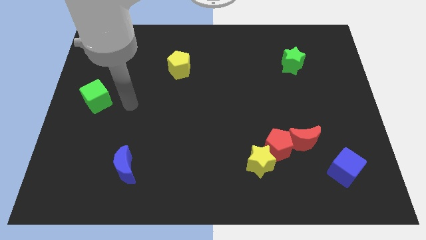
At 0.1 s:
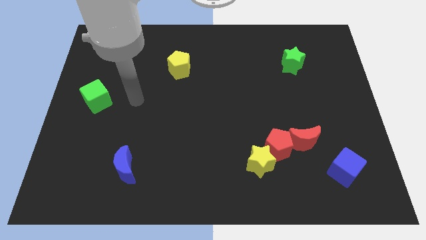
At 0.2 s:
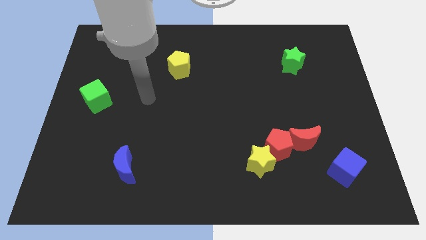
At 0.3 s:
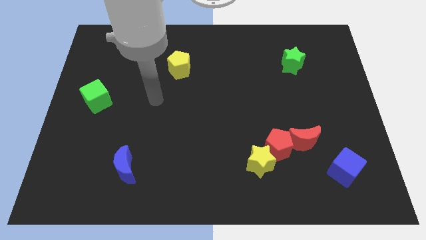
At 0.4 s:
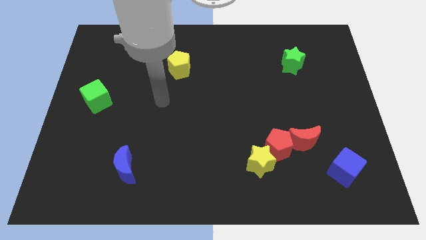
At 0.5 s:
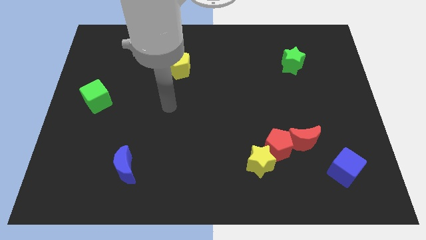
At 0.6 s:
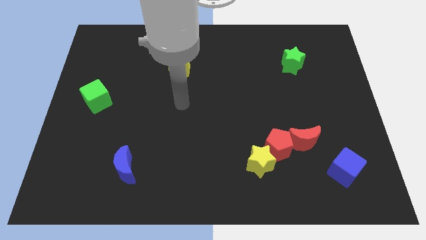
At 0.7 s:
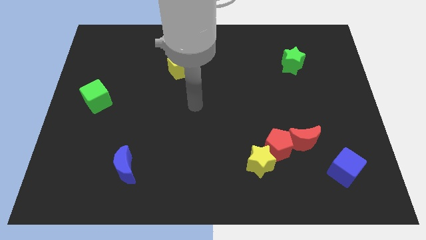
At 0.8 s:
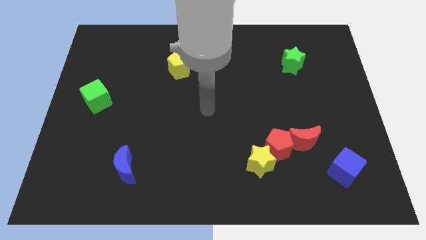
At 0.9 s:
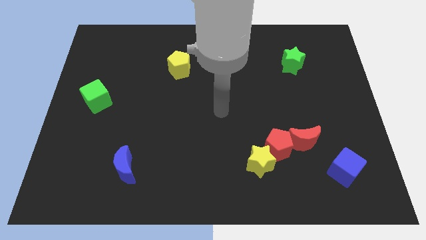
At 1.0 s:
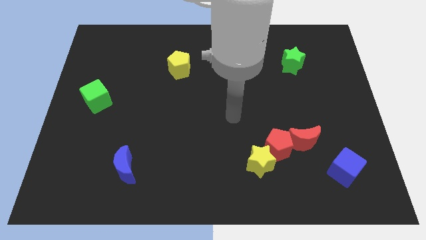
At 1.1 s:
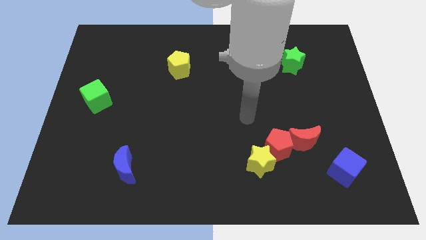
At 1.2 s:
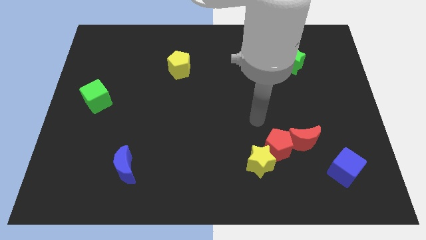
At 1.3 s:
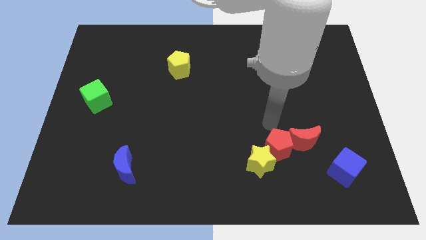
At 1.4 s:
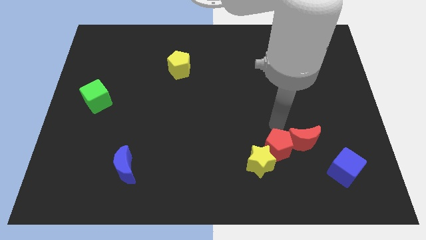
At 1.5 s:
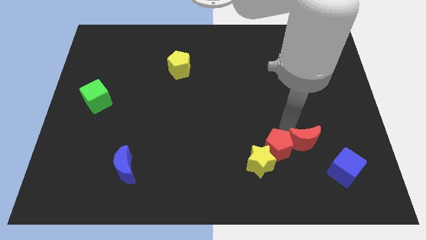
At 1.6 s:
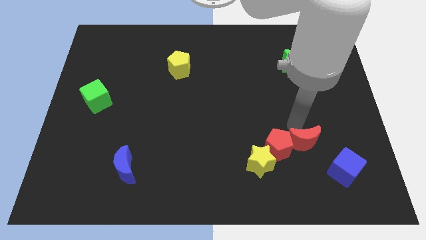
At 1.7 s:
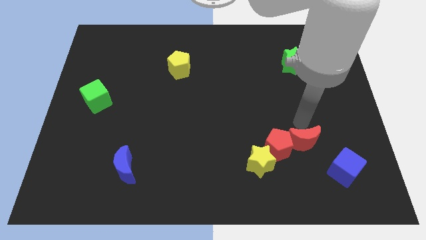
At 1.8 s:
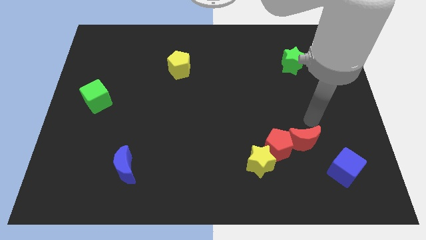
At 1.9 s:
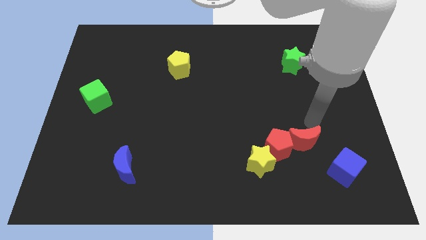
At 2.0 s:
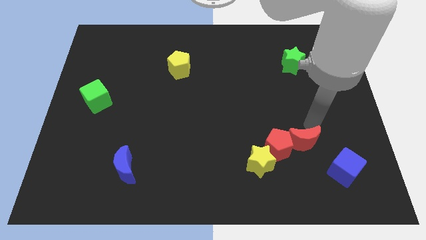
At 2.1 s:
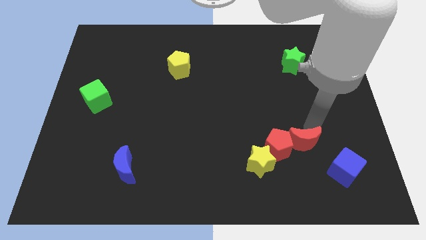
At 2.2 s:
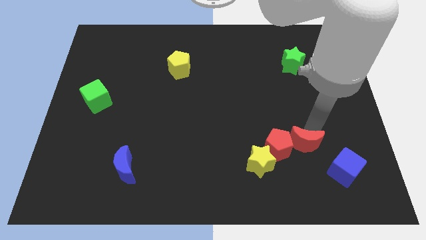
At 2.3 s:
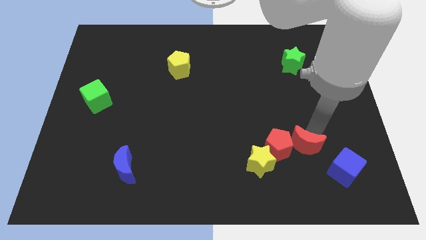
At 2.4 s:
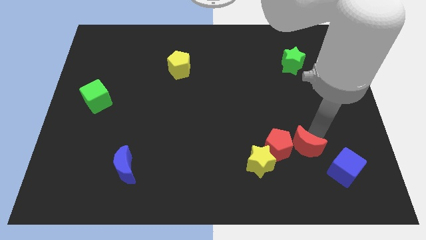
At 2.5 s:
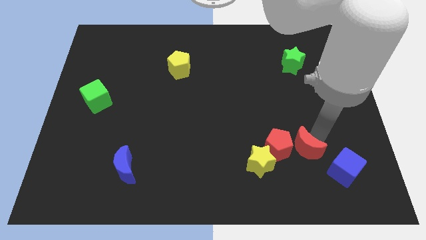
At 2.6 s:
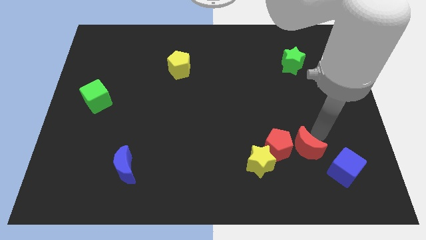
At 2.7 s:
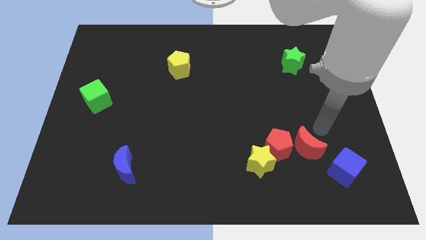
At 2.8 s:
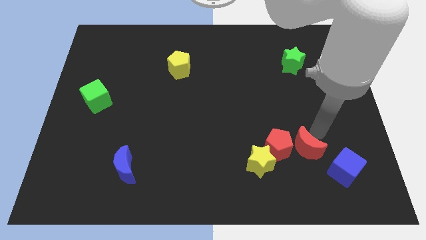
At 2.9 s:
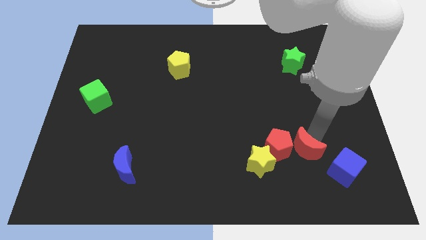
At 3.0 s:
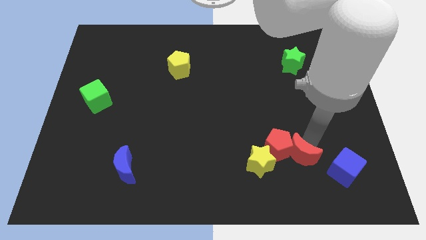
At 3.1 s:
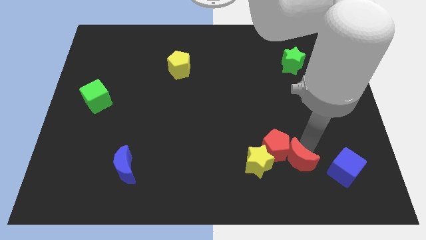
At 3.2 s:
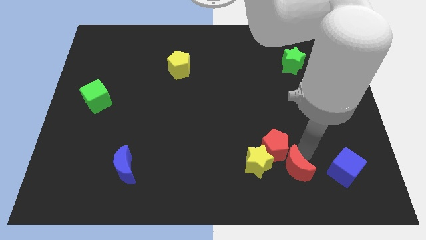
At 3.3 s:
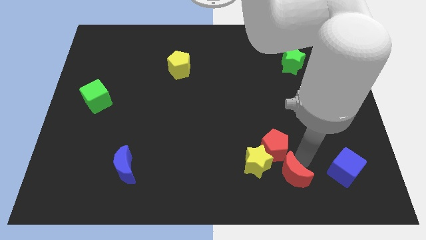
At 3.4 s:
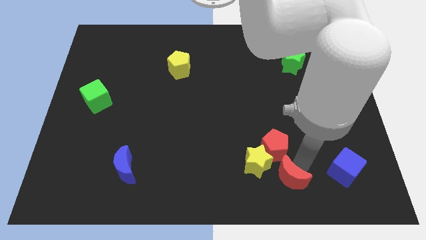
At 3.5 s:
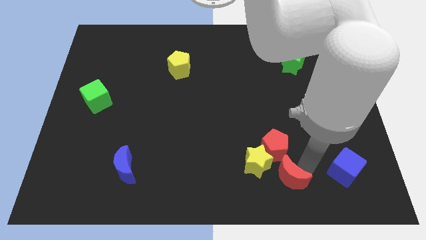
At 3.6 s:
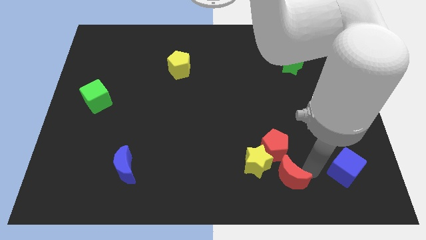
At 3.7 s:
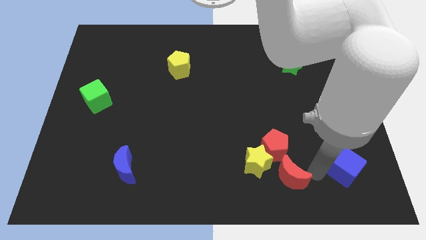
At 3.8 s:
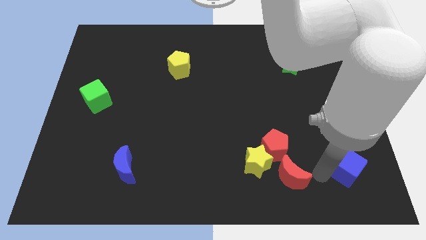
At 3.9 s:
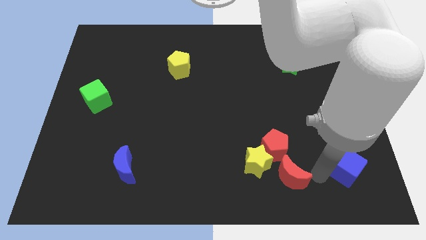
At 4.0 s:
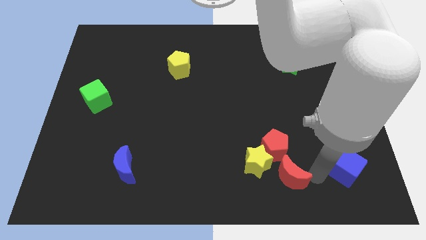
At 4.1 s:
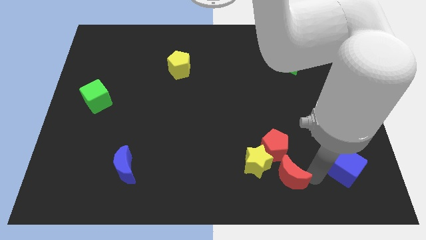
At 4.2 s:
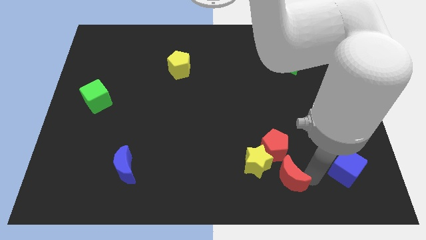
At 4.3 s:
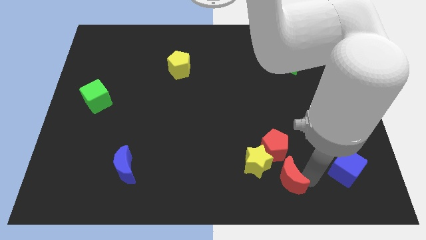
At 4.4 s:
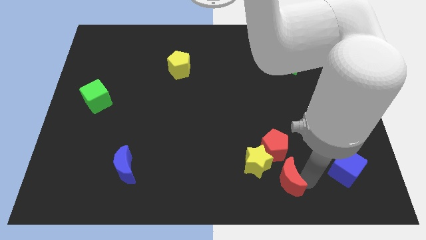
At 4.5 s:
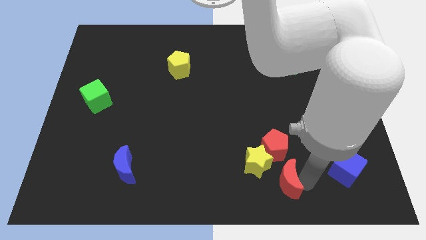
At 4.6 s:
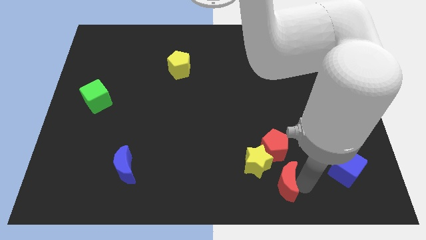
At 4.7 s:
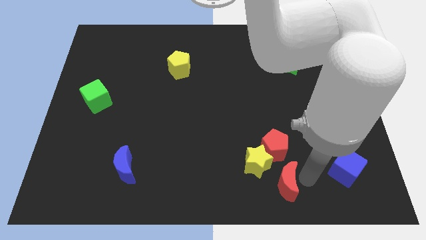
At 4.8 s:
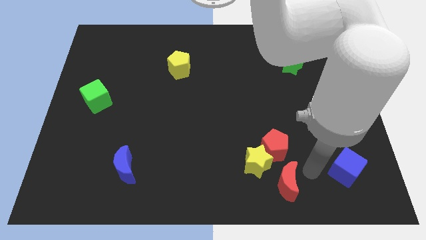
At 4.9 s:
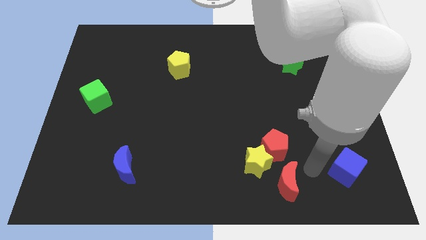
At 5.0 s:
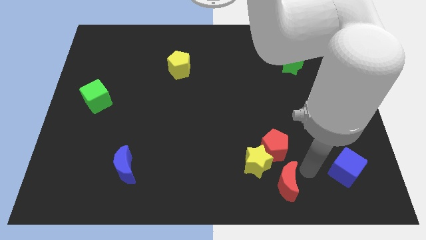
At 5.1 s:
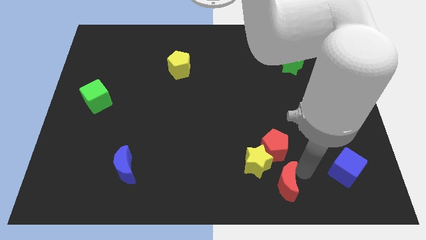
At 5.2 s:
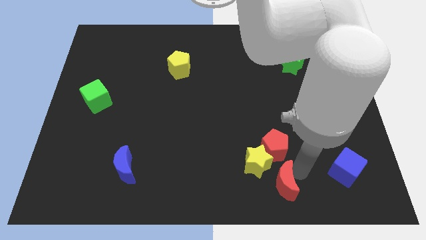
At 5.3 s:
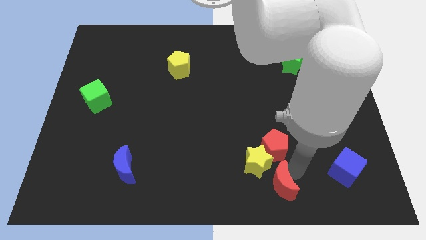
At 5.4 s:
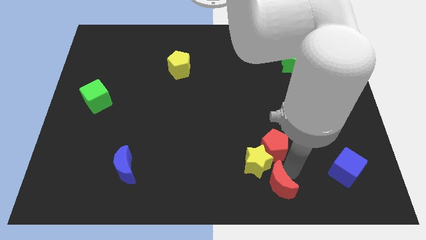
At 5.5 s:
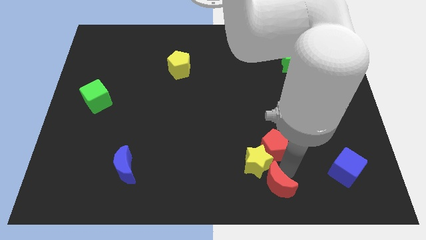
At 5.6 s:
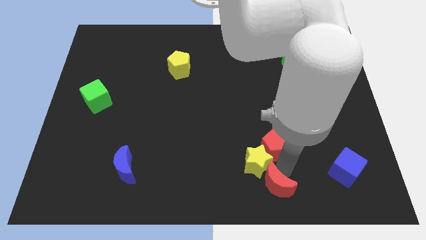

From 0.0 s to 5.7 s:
move the red moon to the bottom side

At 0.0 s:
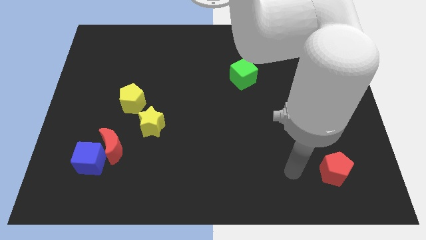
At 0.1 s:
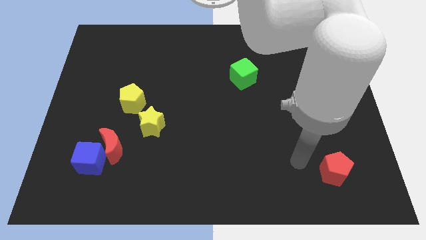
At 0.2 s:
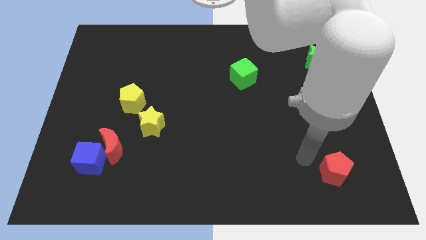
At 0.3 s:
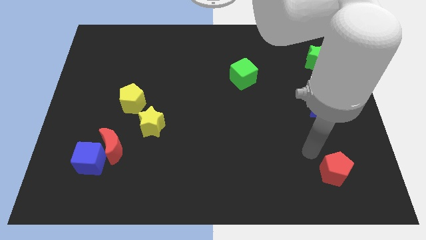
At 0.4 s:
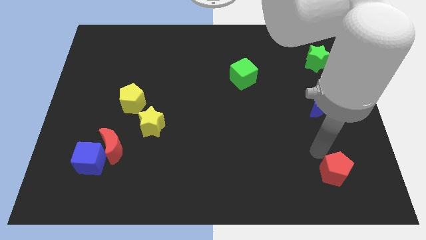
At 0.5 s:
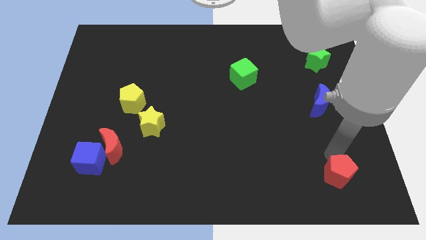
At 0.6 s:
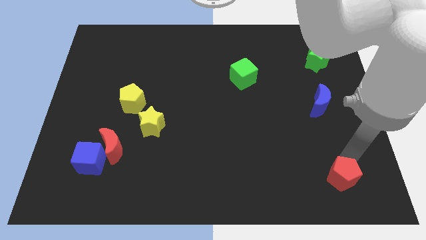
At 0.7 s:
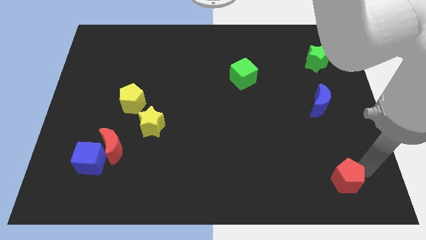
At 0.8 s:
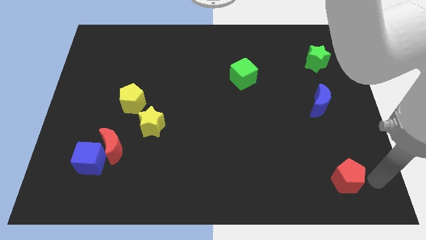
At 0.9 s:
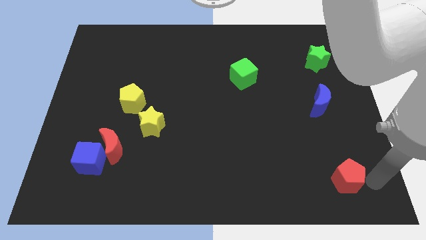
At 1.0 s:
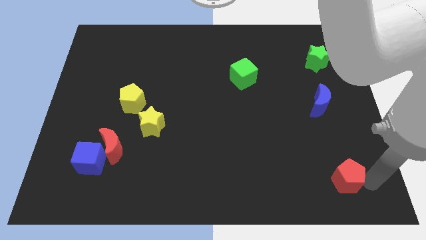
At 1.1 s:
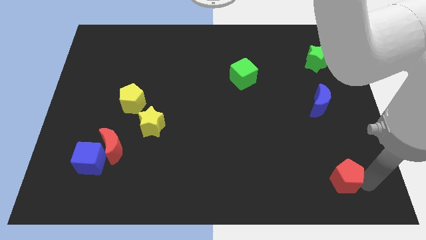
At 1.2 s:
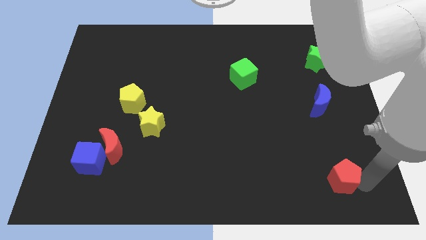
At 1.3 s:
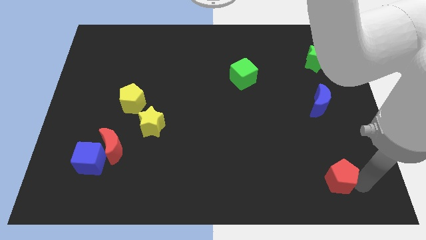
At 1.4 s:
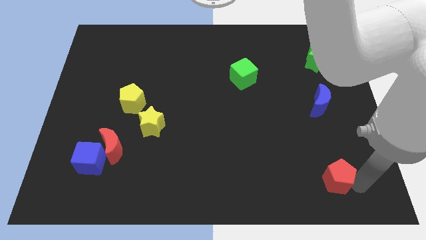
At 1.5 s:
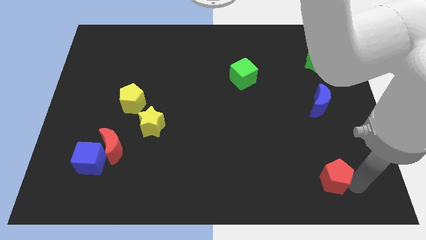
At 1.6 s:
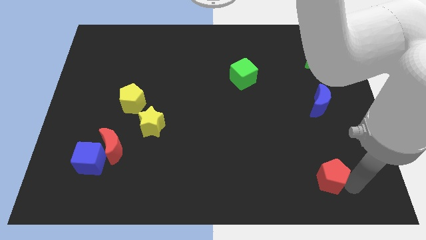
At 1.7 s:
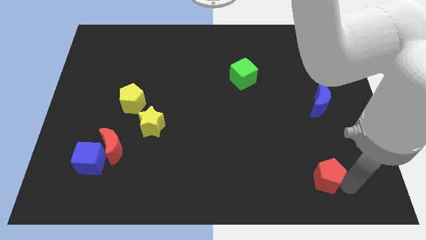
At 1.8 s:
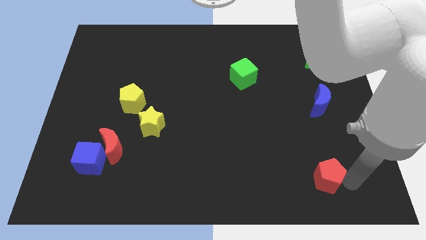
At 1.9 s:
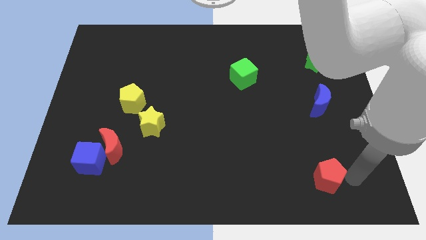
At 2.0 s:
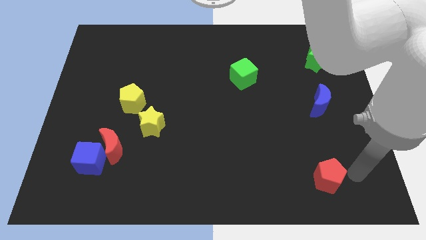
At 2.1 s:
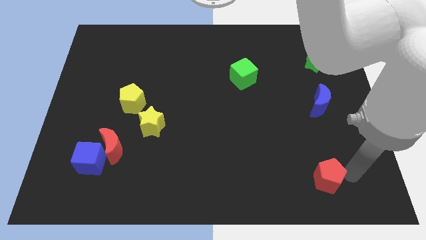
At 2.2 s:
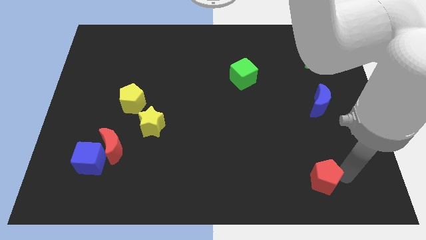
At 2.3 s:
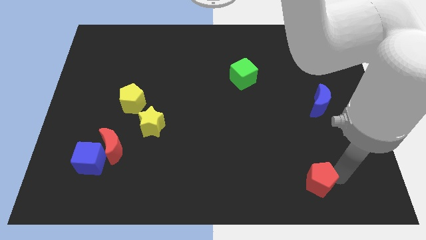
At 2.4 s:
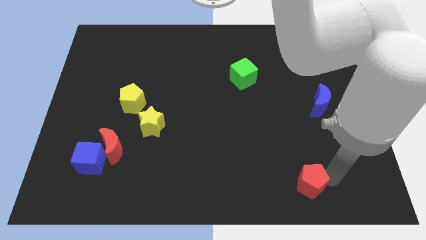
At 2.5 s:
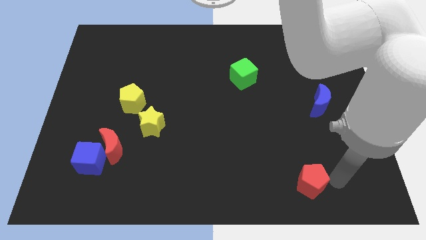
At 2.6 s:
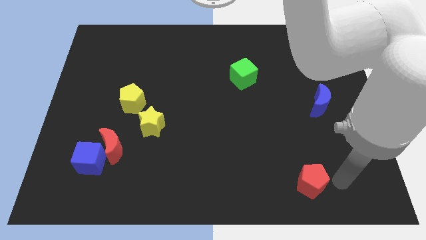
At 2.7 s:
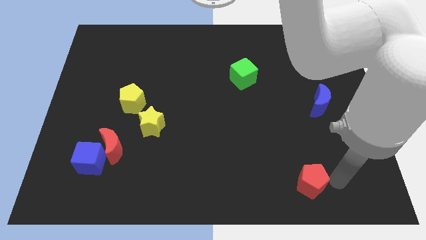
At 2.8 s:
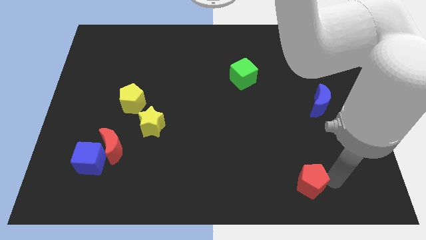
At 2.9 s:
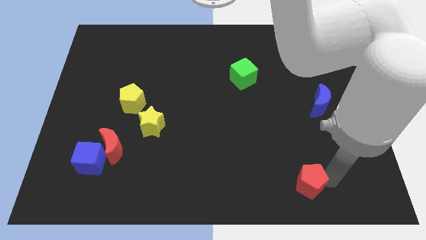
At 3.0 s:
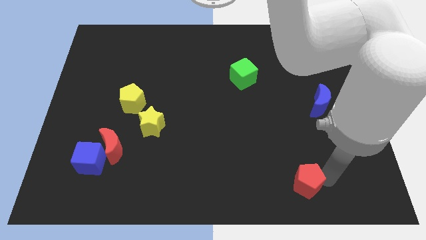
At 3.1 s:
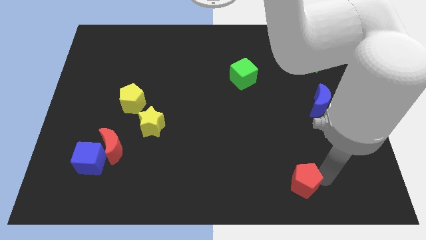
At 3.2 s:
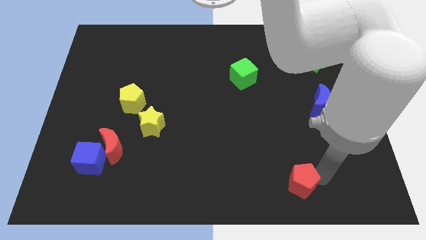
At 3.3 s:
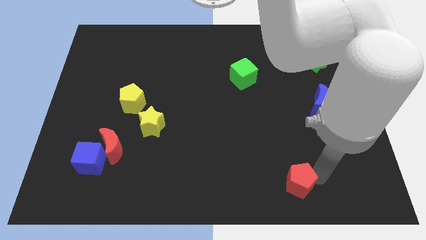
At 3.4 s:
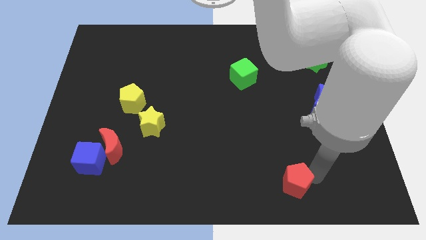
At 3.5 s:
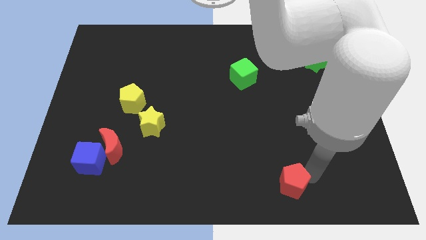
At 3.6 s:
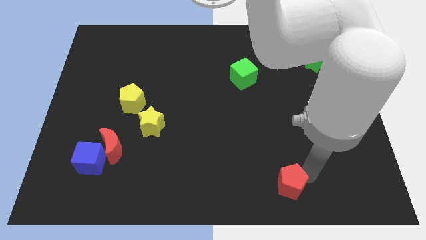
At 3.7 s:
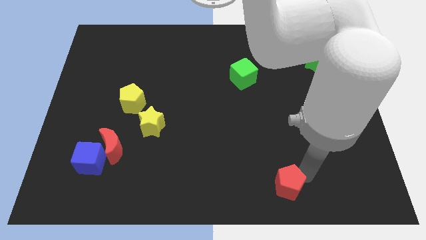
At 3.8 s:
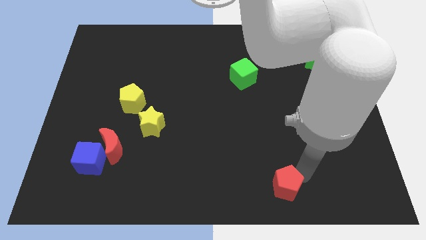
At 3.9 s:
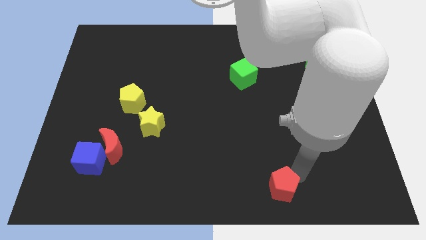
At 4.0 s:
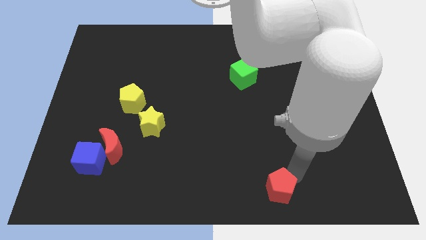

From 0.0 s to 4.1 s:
put the red pentagon to the bottom side
